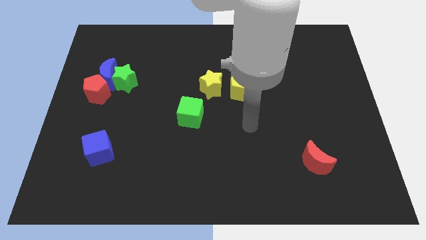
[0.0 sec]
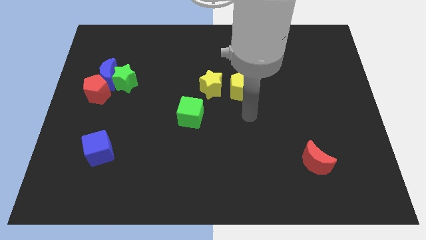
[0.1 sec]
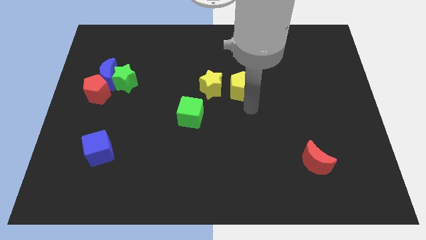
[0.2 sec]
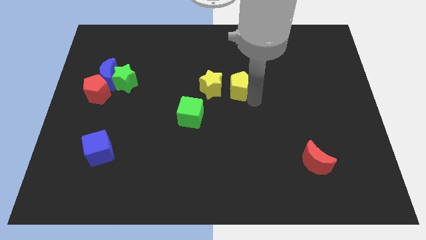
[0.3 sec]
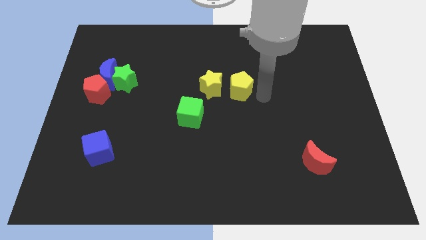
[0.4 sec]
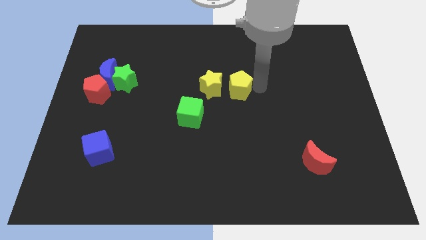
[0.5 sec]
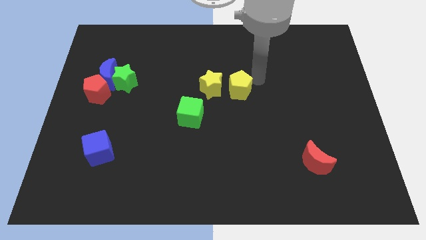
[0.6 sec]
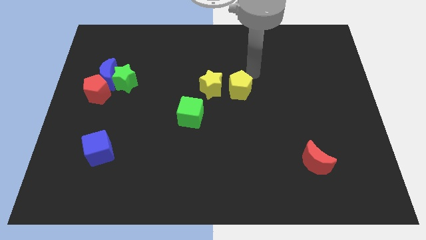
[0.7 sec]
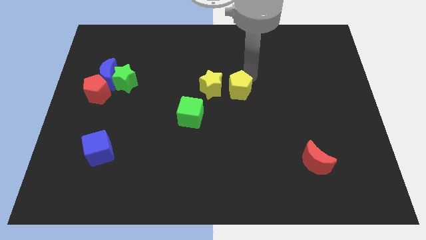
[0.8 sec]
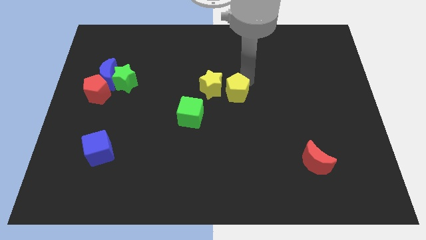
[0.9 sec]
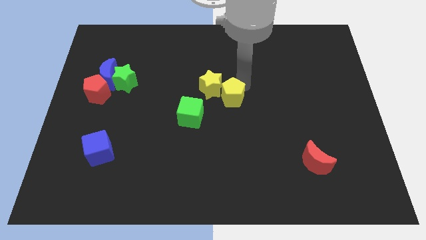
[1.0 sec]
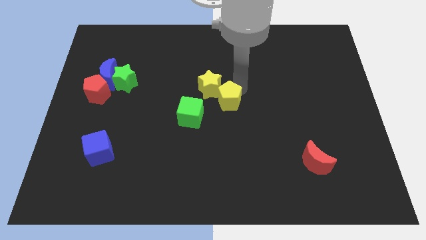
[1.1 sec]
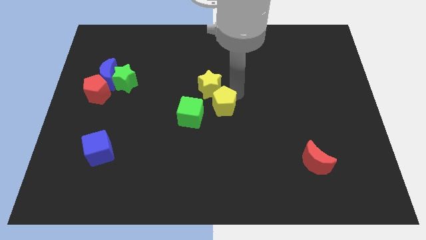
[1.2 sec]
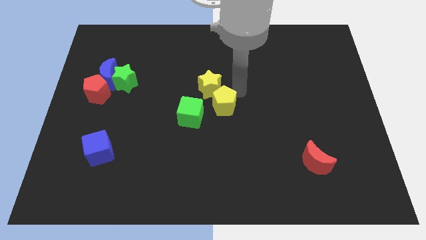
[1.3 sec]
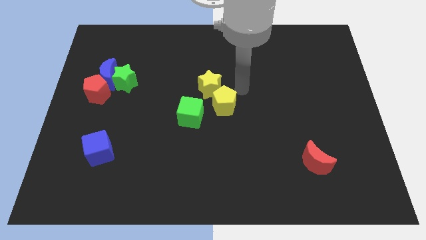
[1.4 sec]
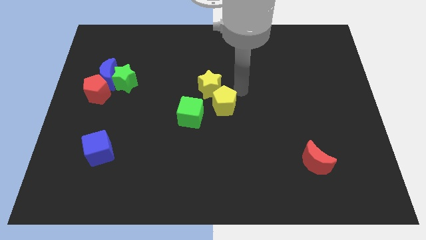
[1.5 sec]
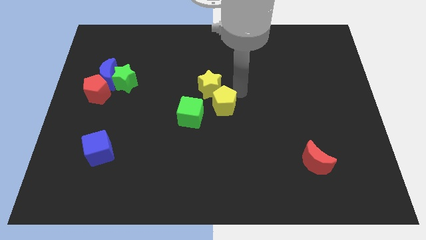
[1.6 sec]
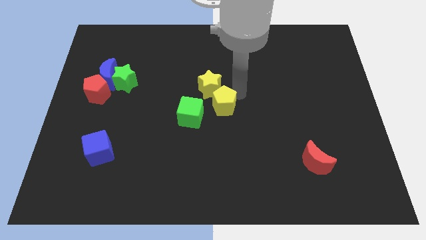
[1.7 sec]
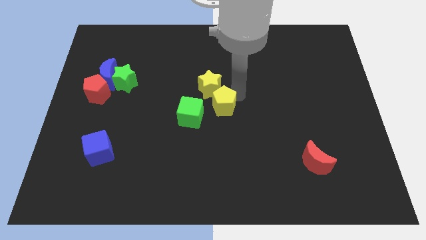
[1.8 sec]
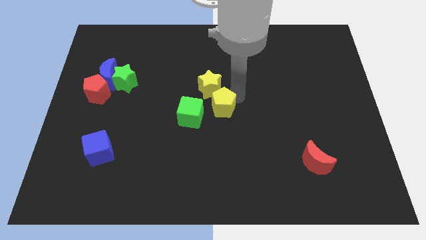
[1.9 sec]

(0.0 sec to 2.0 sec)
slightly slide the yellow pentagon downwards and then to the left

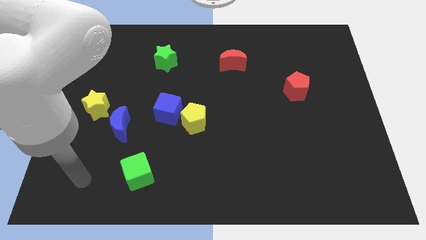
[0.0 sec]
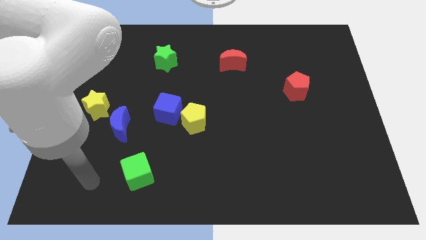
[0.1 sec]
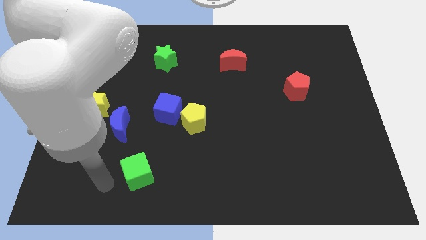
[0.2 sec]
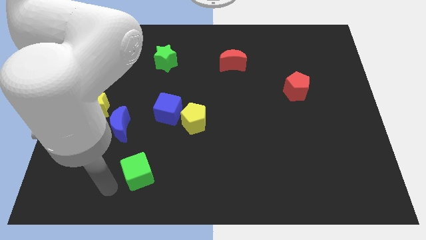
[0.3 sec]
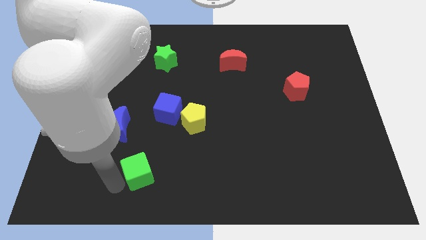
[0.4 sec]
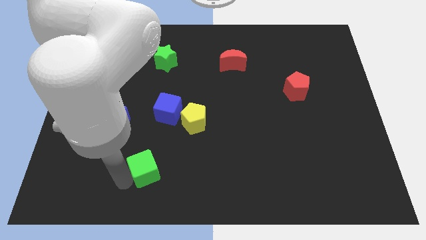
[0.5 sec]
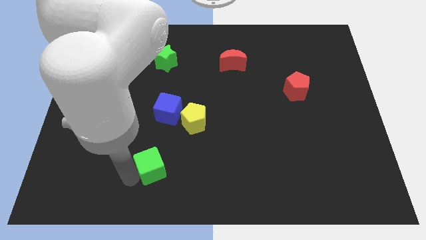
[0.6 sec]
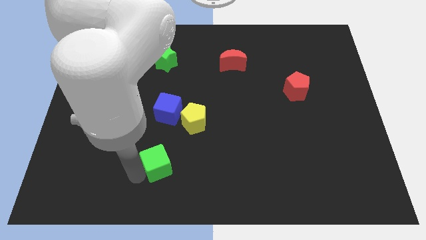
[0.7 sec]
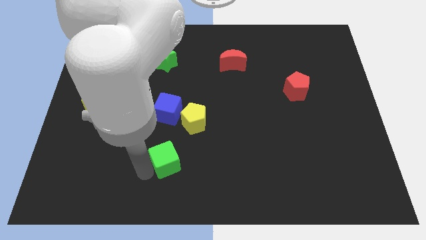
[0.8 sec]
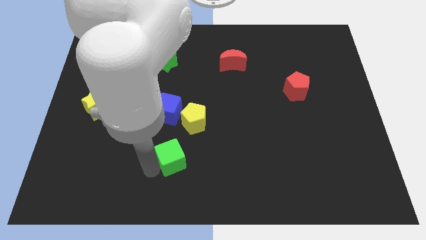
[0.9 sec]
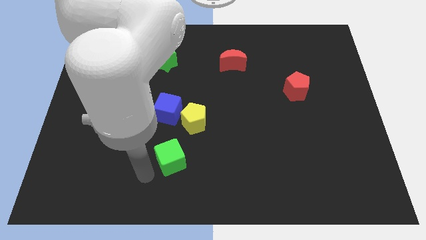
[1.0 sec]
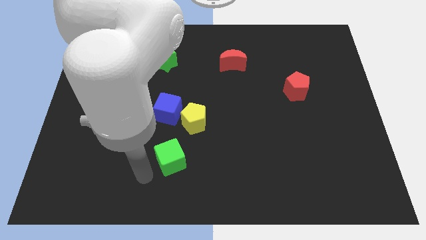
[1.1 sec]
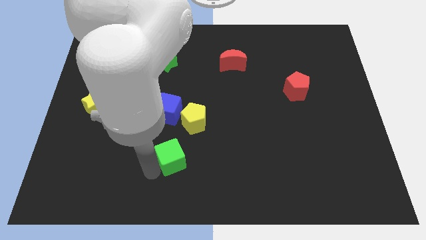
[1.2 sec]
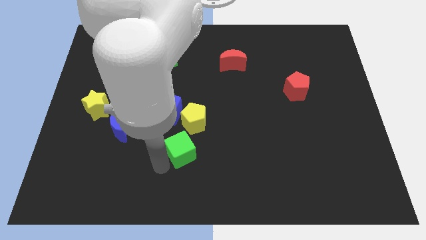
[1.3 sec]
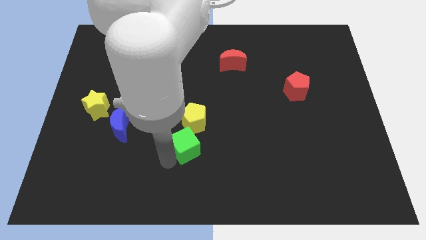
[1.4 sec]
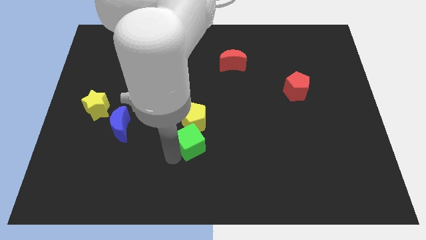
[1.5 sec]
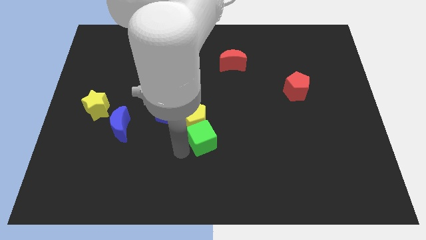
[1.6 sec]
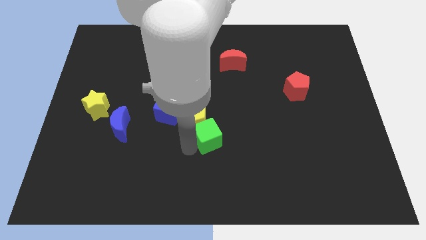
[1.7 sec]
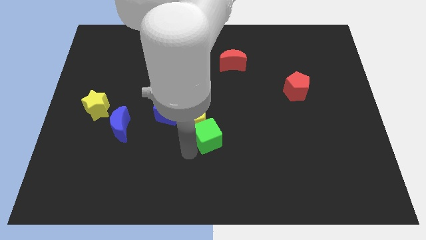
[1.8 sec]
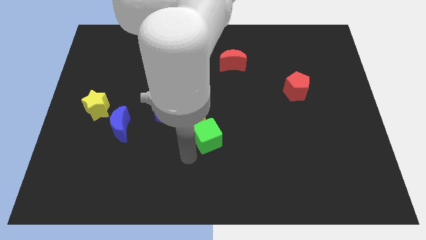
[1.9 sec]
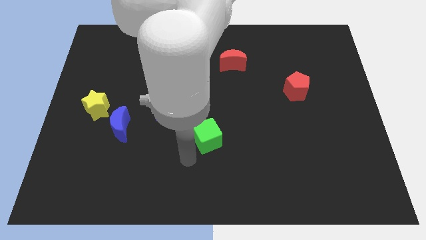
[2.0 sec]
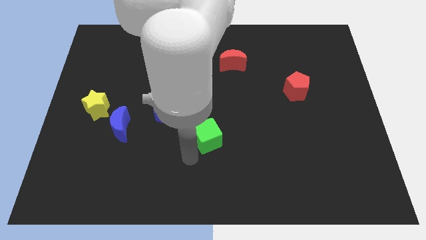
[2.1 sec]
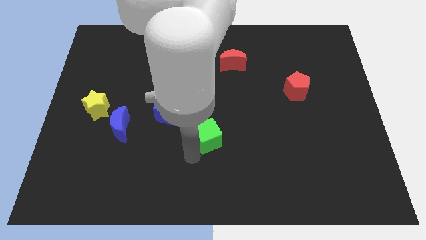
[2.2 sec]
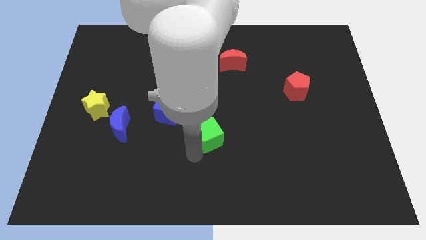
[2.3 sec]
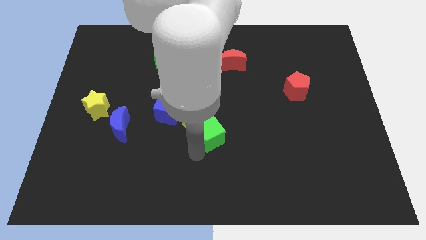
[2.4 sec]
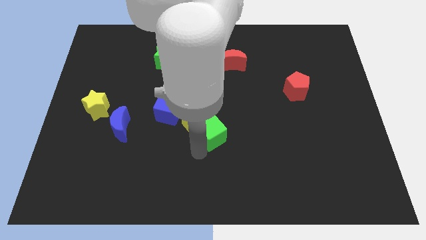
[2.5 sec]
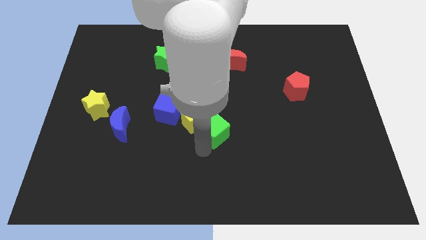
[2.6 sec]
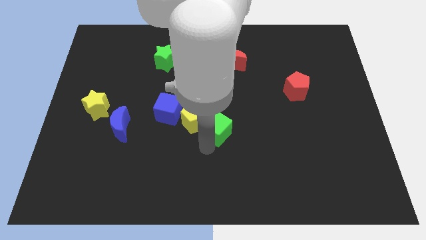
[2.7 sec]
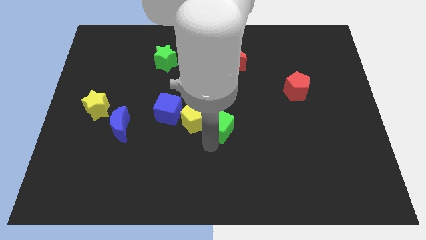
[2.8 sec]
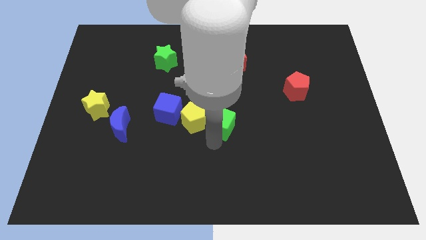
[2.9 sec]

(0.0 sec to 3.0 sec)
slide the green cube upwards and right

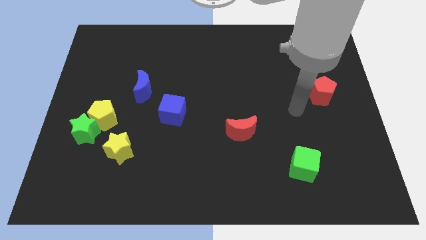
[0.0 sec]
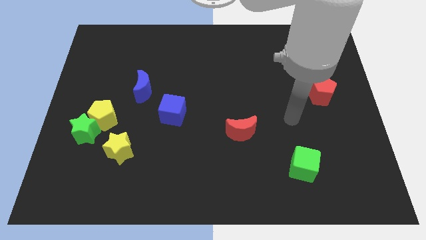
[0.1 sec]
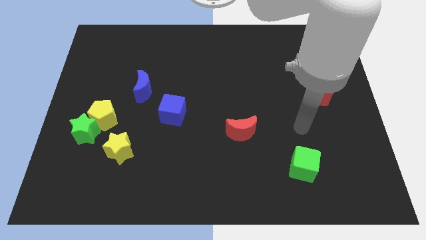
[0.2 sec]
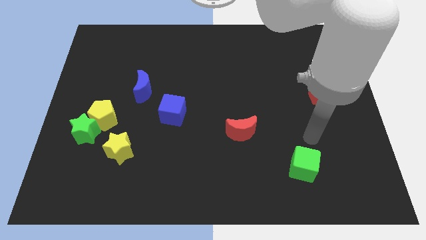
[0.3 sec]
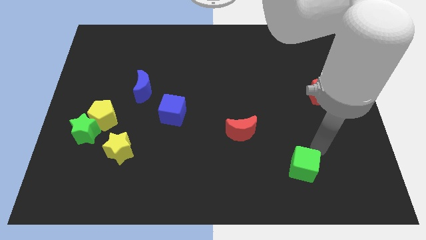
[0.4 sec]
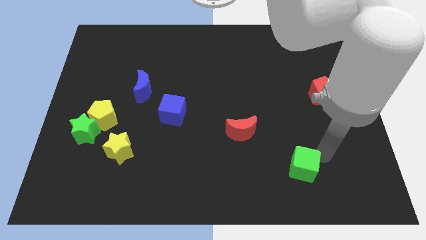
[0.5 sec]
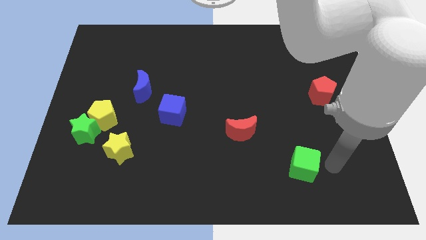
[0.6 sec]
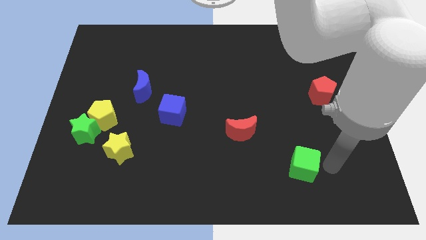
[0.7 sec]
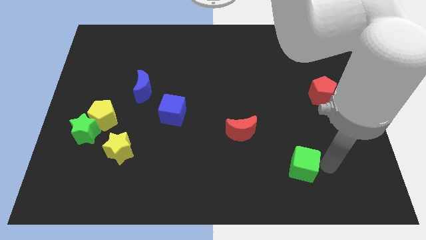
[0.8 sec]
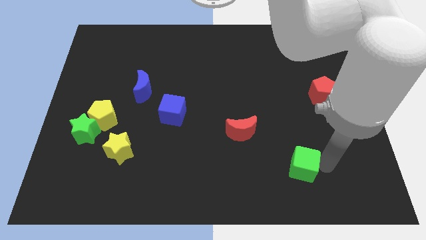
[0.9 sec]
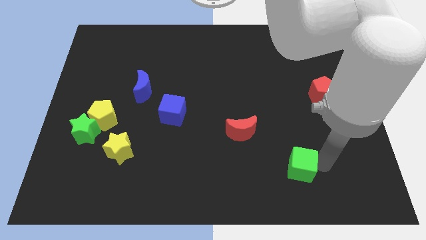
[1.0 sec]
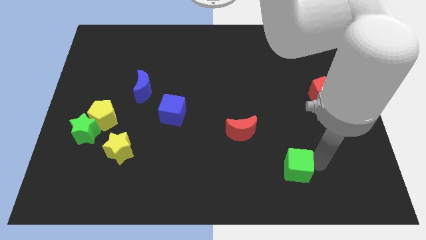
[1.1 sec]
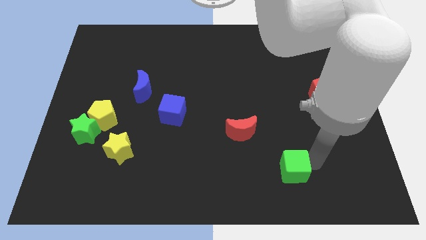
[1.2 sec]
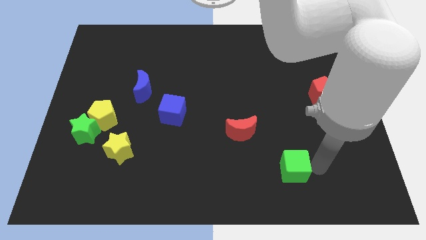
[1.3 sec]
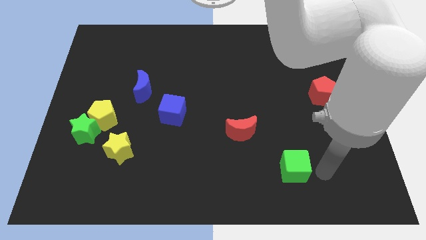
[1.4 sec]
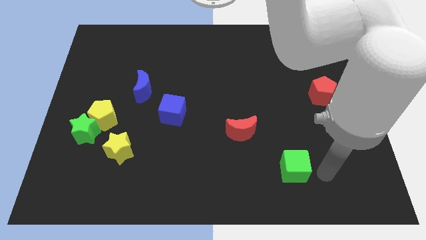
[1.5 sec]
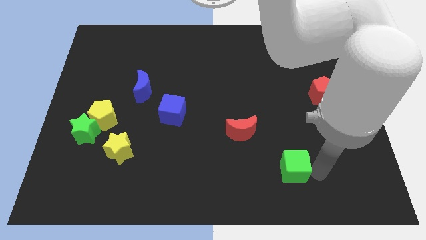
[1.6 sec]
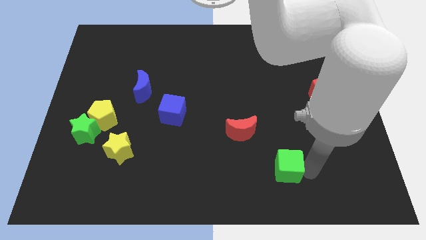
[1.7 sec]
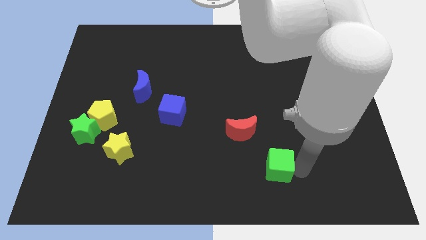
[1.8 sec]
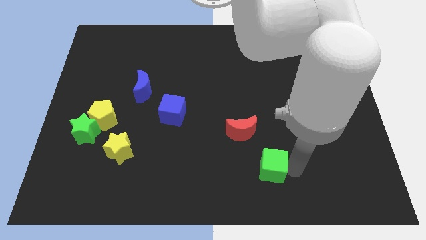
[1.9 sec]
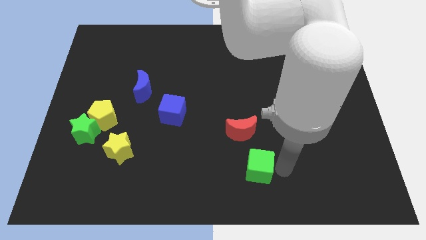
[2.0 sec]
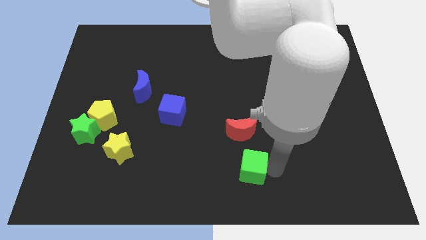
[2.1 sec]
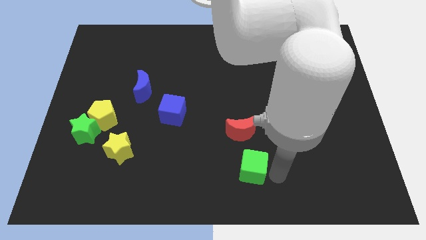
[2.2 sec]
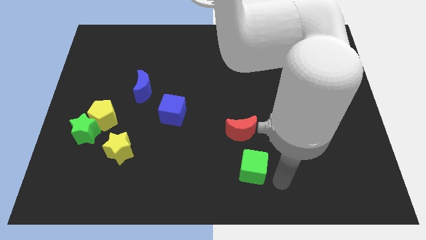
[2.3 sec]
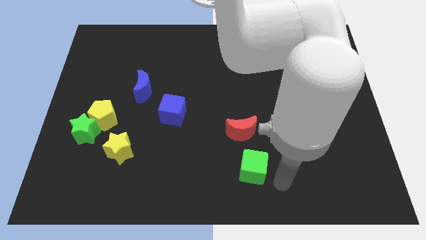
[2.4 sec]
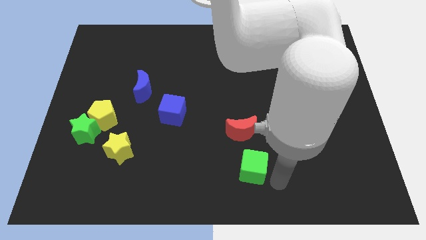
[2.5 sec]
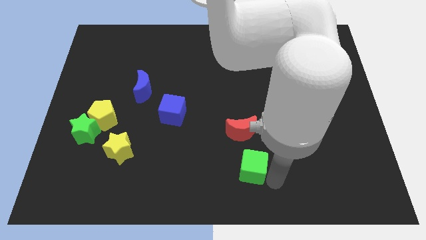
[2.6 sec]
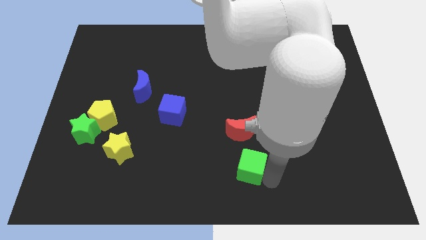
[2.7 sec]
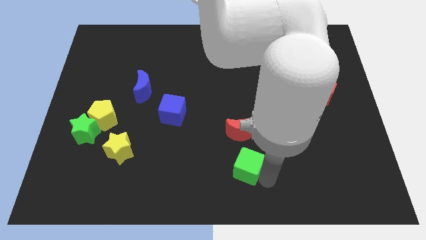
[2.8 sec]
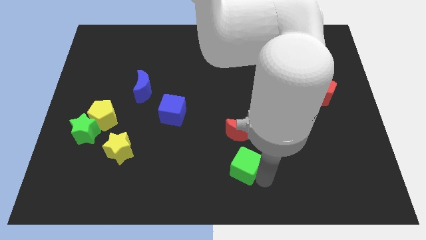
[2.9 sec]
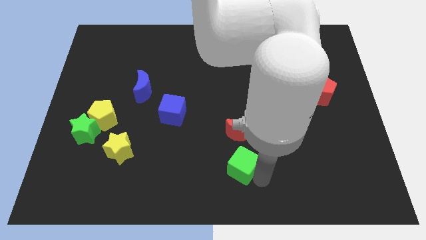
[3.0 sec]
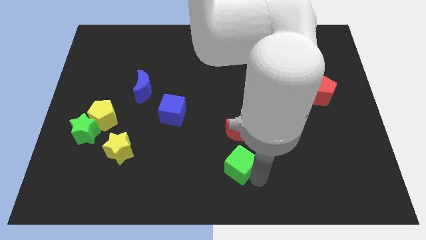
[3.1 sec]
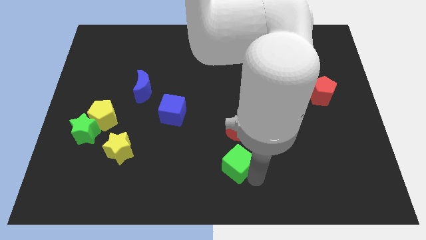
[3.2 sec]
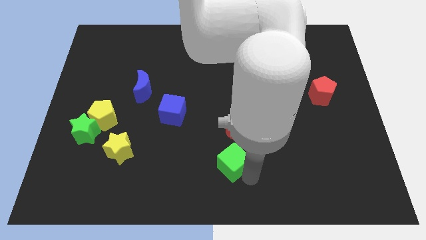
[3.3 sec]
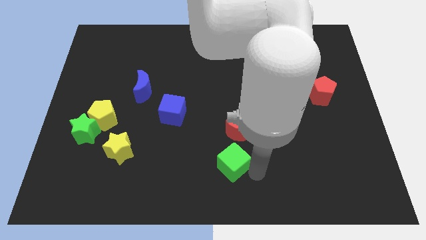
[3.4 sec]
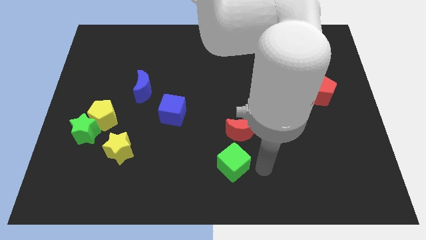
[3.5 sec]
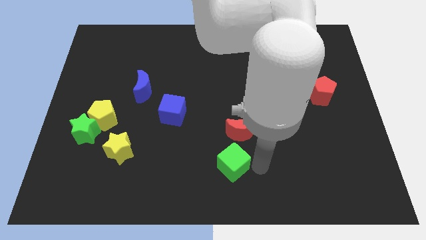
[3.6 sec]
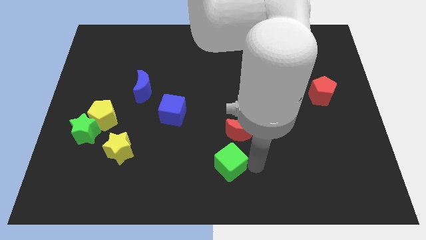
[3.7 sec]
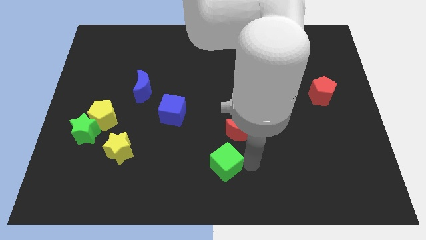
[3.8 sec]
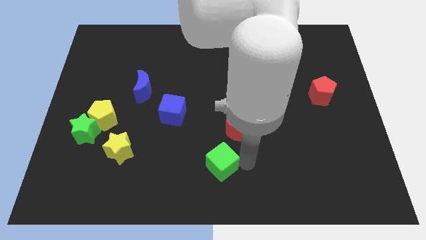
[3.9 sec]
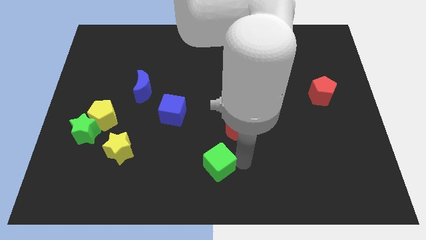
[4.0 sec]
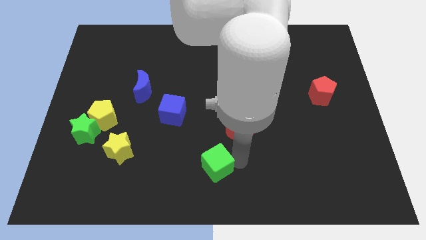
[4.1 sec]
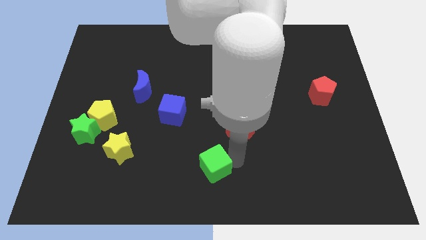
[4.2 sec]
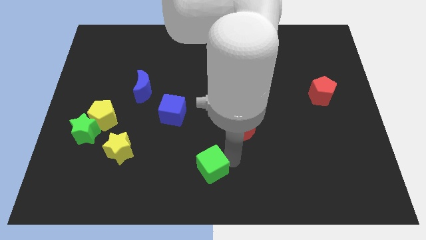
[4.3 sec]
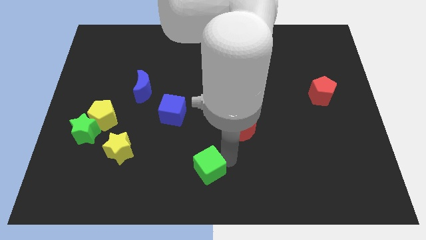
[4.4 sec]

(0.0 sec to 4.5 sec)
slide the green cube to the left
